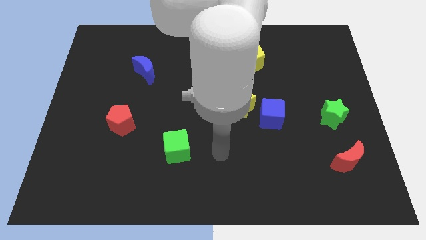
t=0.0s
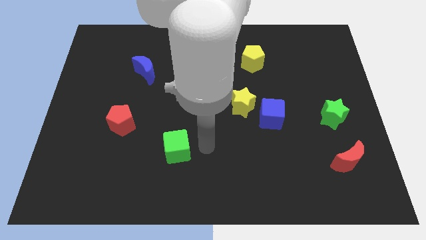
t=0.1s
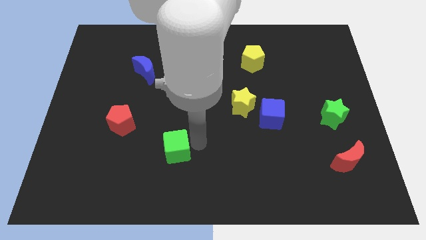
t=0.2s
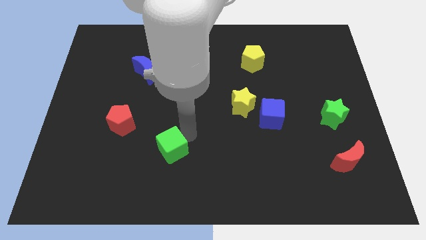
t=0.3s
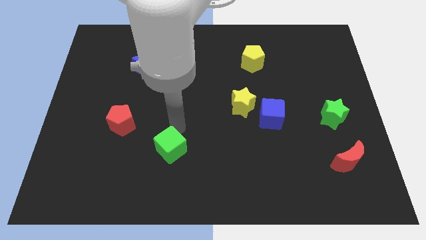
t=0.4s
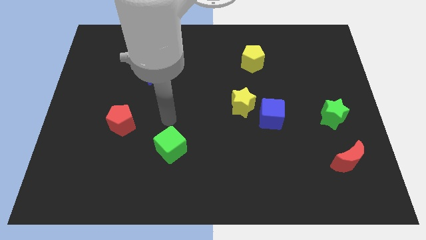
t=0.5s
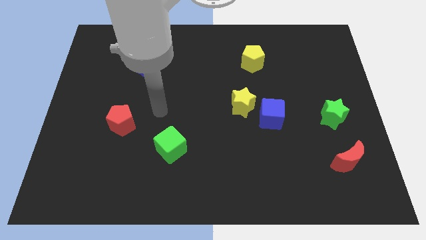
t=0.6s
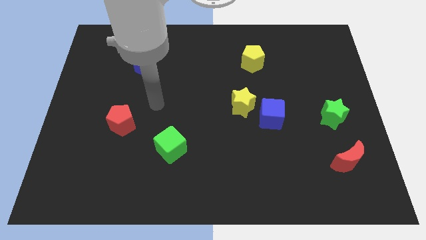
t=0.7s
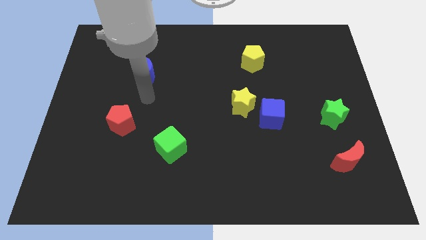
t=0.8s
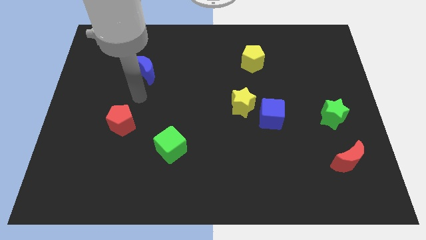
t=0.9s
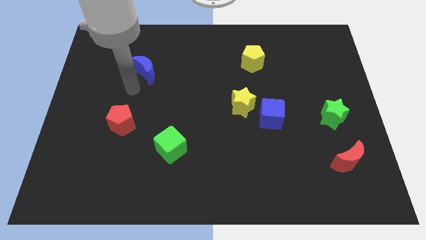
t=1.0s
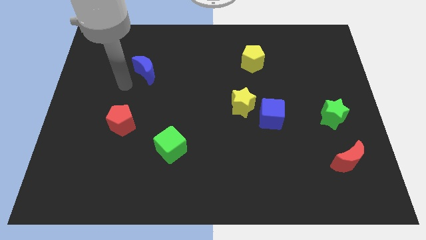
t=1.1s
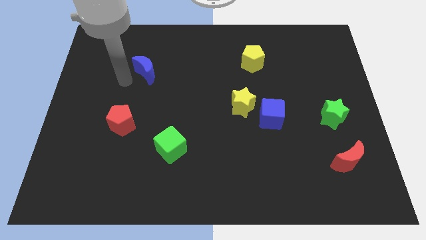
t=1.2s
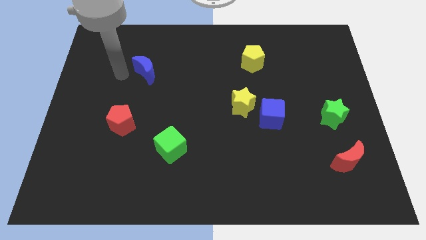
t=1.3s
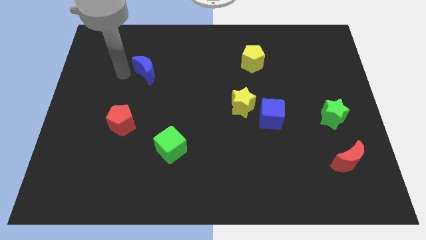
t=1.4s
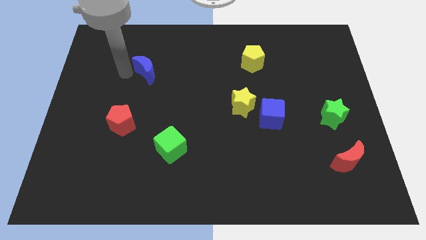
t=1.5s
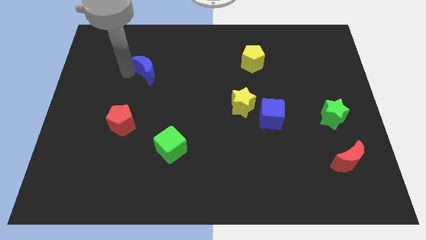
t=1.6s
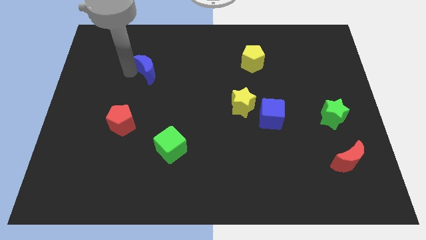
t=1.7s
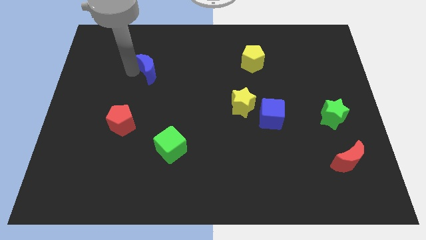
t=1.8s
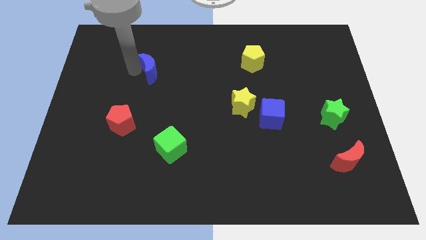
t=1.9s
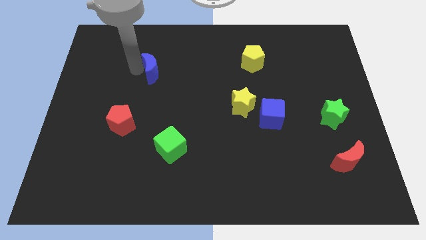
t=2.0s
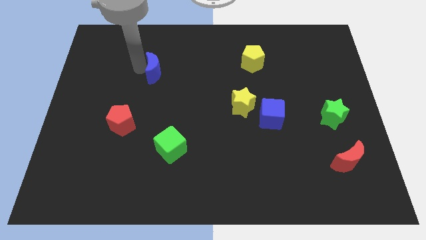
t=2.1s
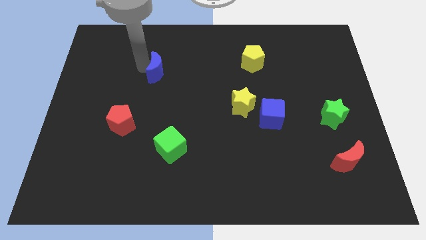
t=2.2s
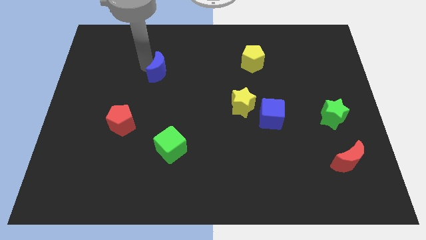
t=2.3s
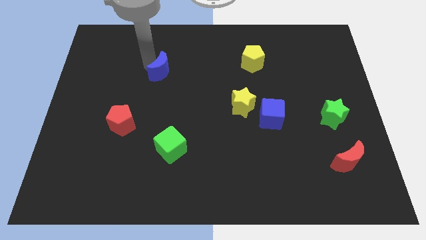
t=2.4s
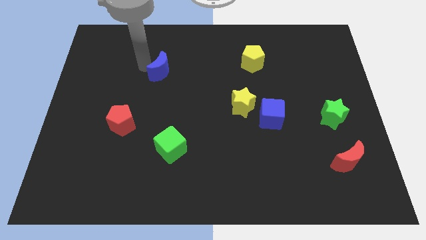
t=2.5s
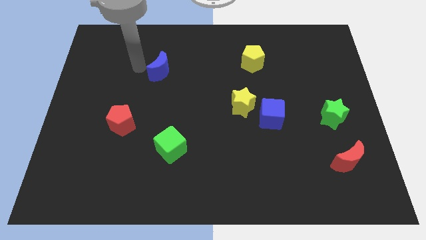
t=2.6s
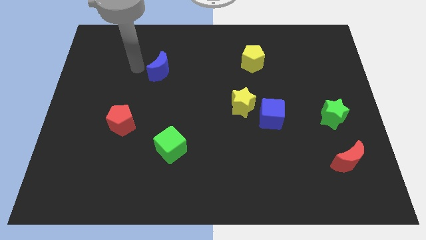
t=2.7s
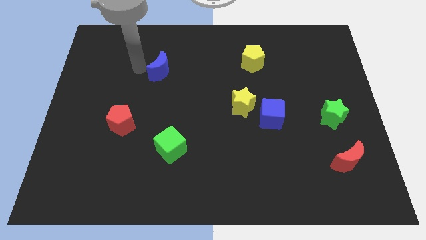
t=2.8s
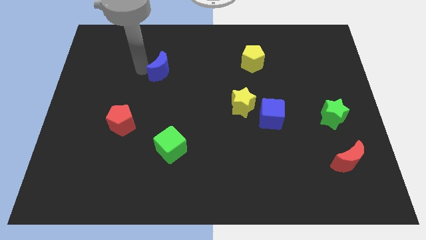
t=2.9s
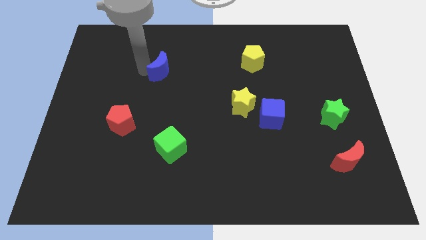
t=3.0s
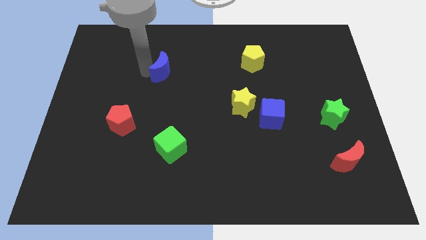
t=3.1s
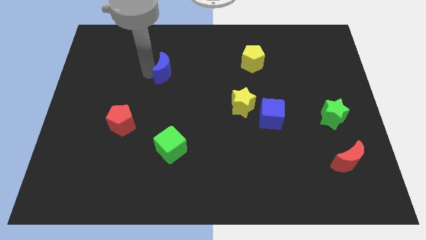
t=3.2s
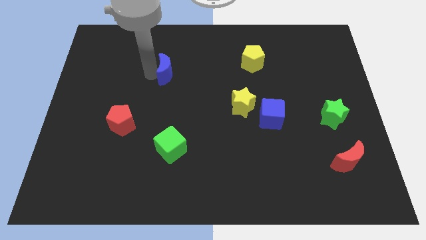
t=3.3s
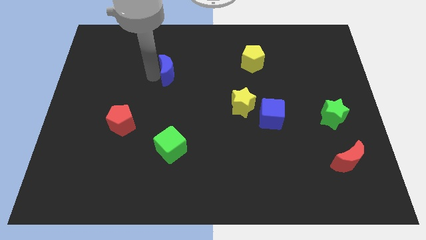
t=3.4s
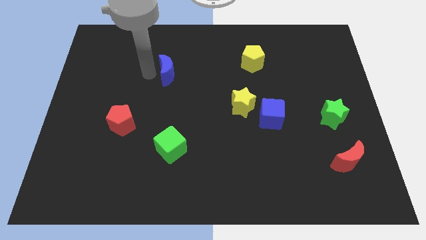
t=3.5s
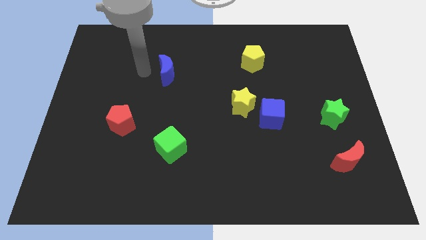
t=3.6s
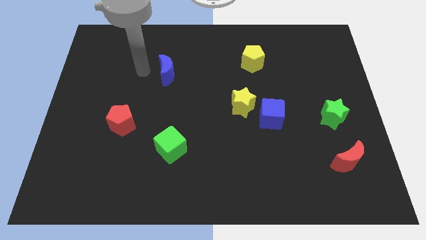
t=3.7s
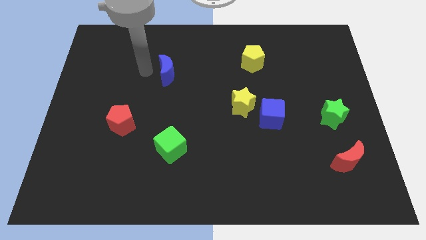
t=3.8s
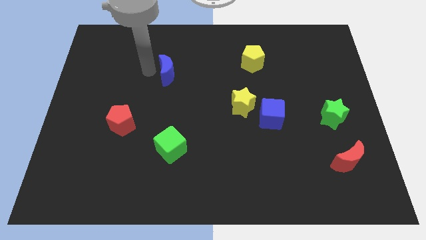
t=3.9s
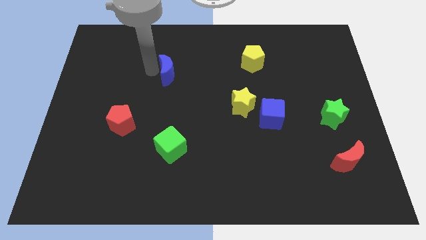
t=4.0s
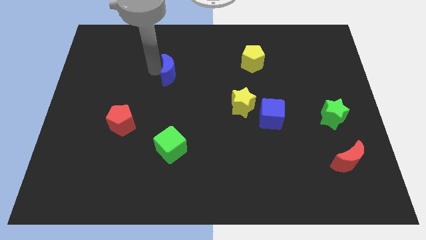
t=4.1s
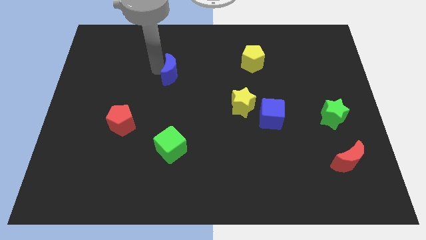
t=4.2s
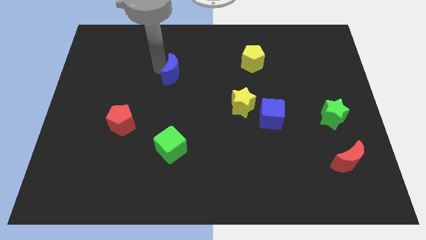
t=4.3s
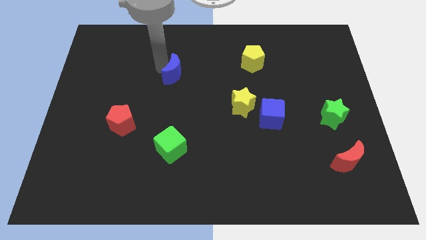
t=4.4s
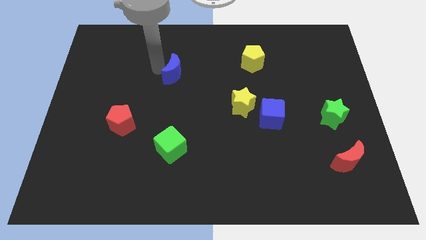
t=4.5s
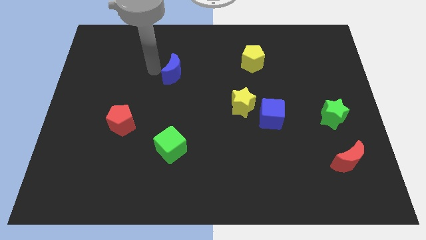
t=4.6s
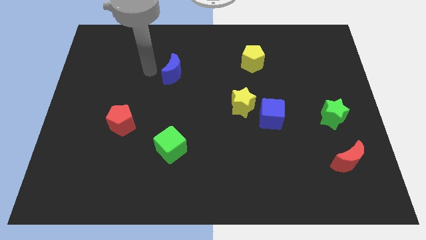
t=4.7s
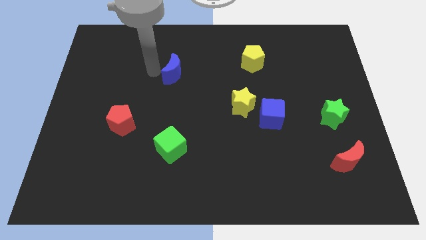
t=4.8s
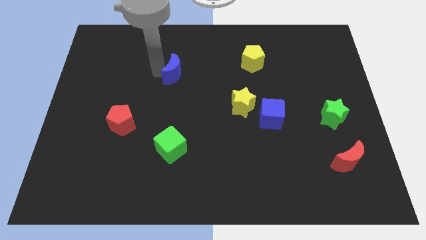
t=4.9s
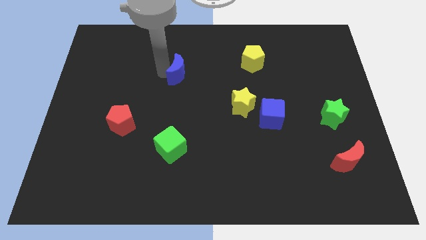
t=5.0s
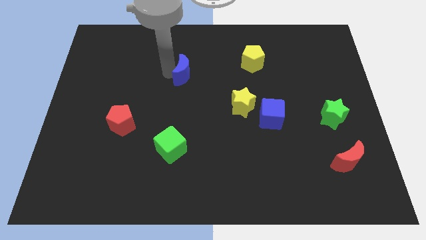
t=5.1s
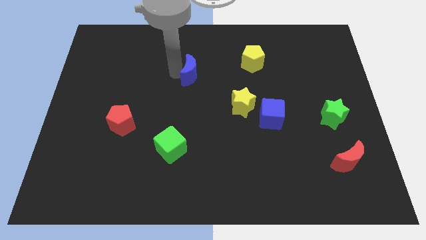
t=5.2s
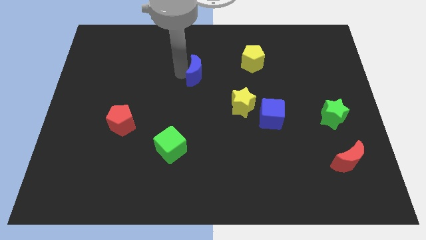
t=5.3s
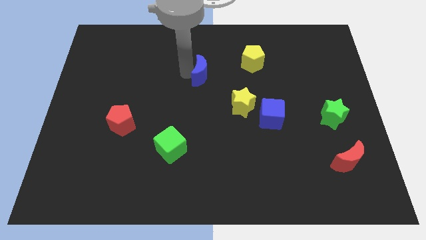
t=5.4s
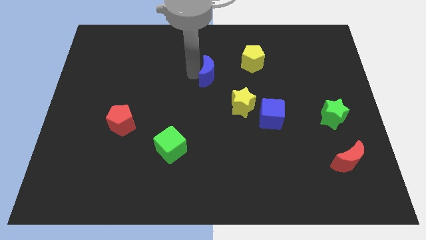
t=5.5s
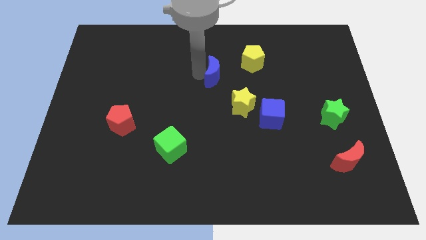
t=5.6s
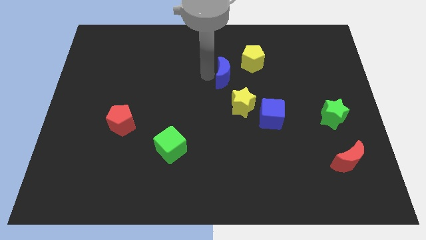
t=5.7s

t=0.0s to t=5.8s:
push the blue moon right

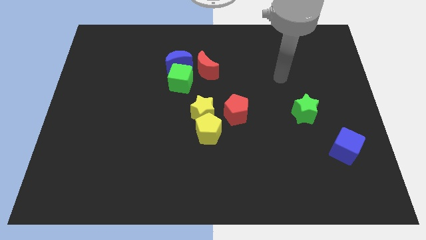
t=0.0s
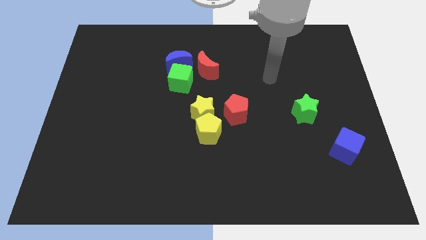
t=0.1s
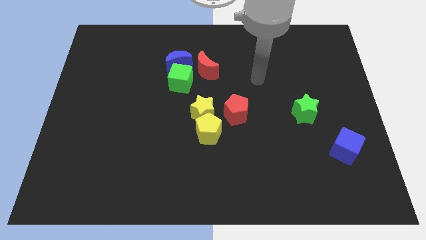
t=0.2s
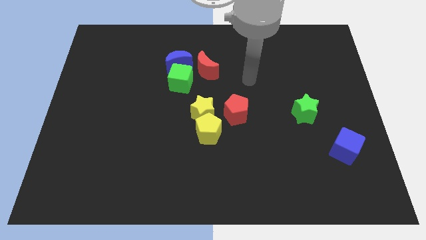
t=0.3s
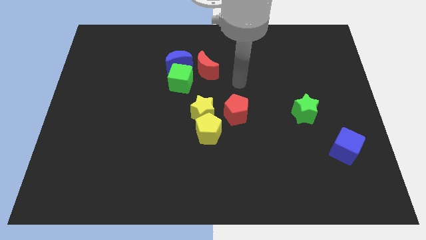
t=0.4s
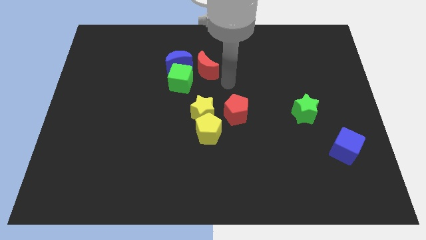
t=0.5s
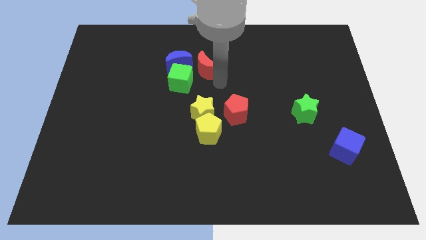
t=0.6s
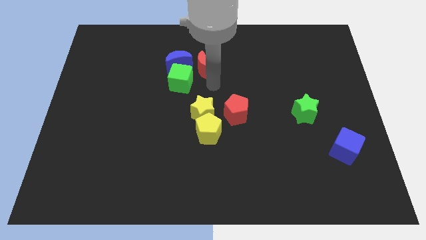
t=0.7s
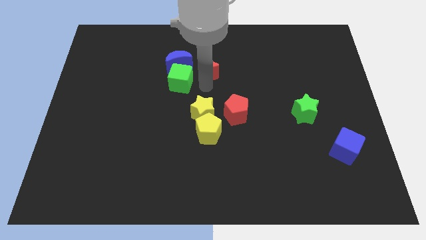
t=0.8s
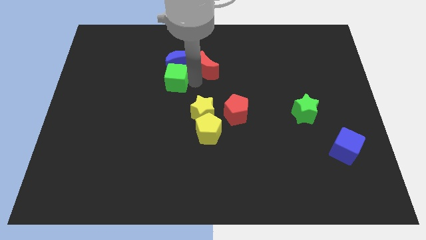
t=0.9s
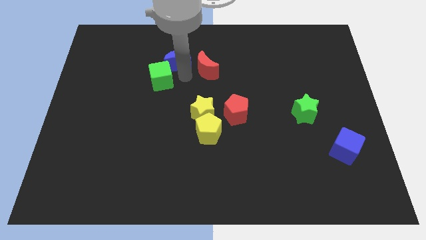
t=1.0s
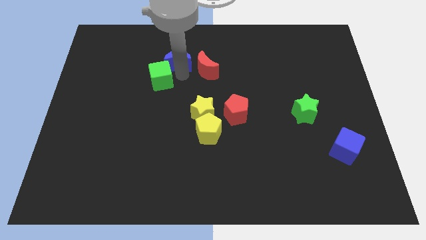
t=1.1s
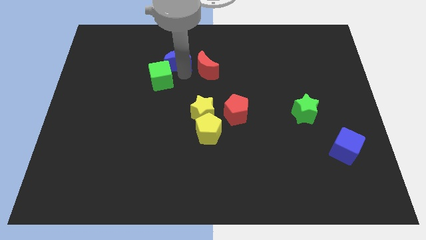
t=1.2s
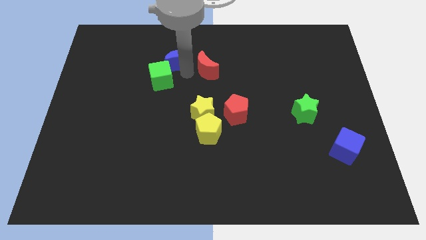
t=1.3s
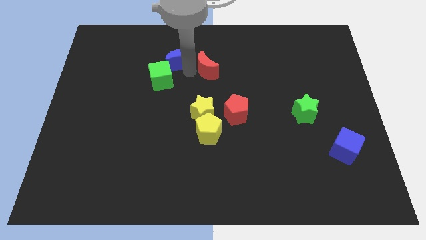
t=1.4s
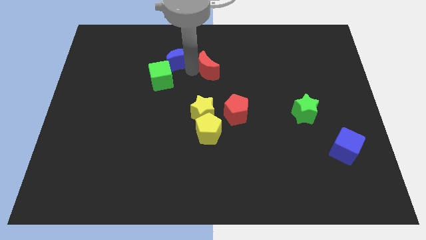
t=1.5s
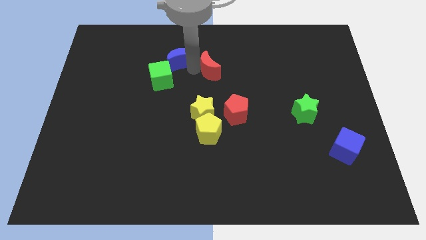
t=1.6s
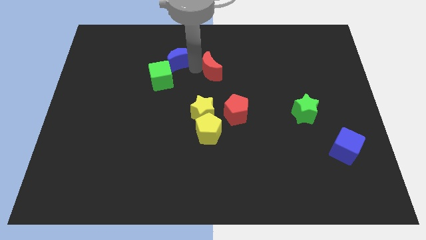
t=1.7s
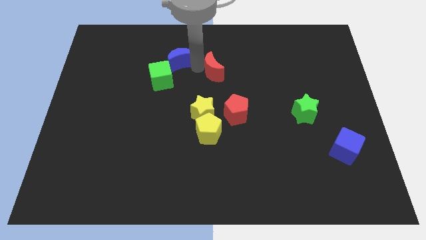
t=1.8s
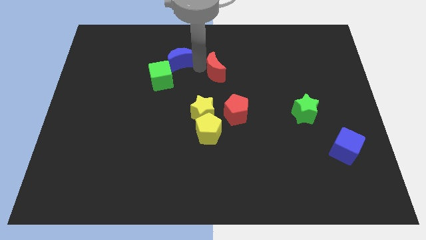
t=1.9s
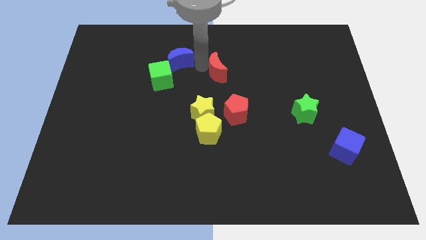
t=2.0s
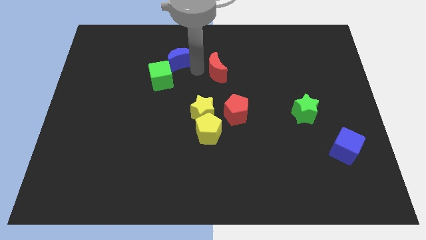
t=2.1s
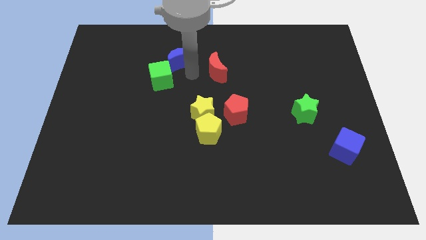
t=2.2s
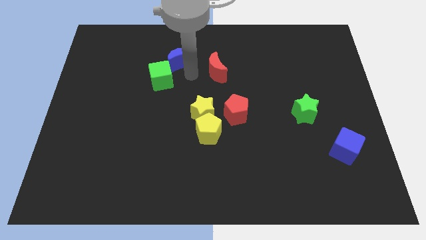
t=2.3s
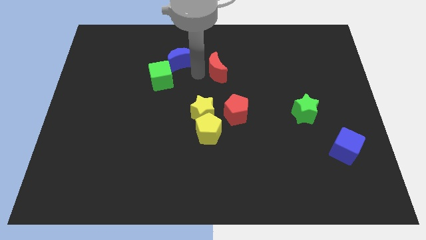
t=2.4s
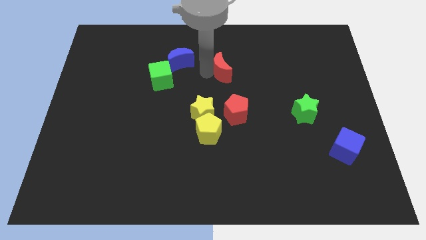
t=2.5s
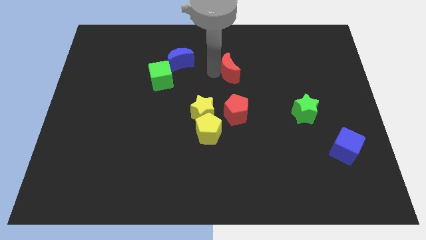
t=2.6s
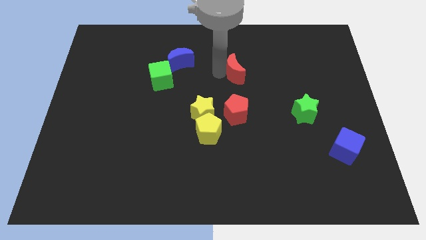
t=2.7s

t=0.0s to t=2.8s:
push the red moon a bit to the right
